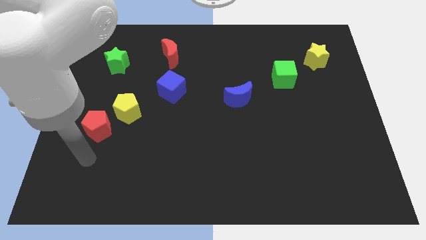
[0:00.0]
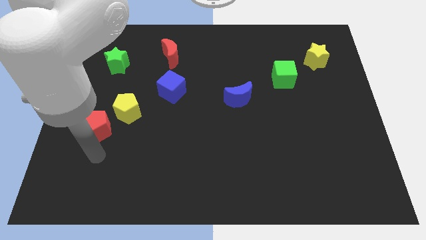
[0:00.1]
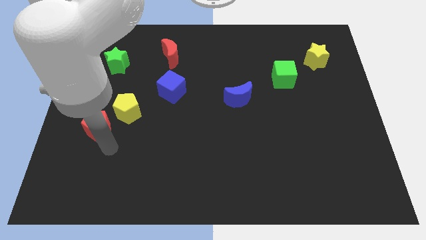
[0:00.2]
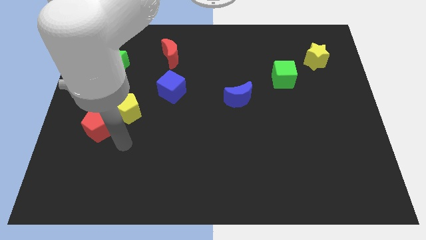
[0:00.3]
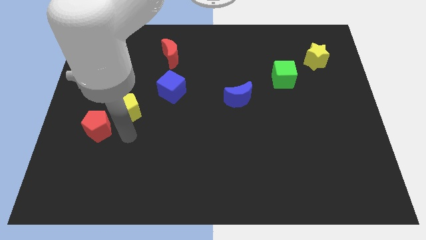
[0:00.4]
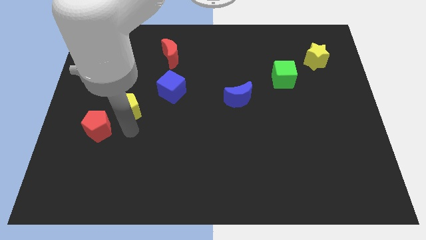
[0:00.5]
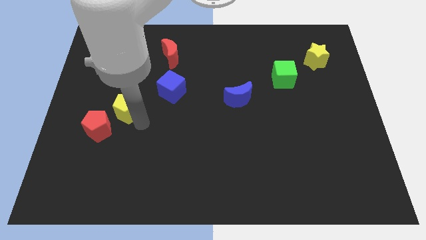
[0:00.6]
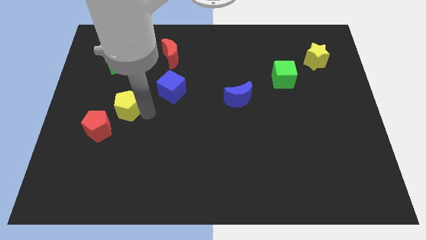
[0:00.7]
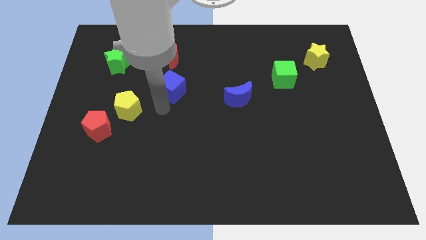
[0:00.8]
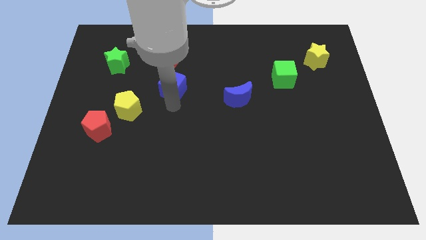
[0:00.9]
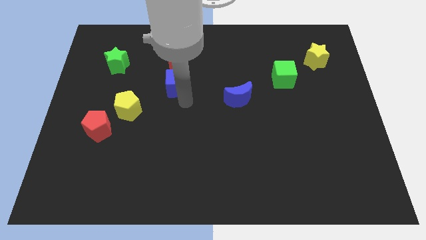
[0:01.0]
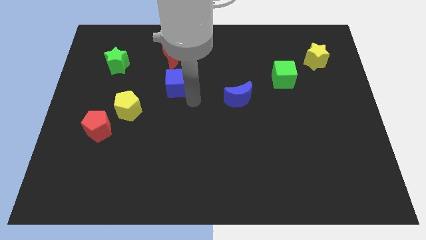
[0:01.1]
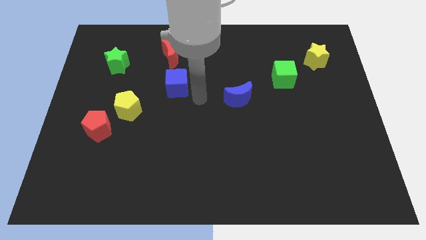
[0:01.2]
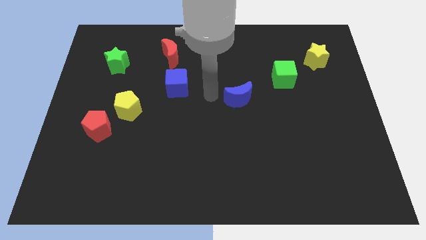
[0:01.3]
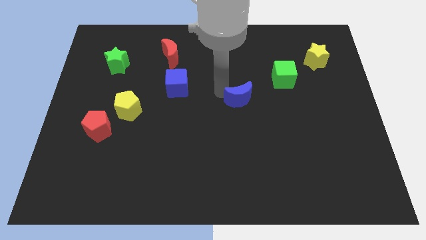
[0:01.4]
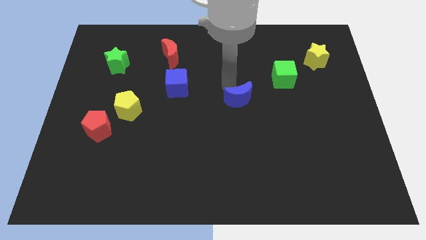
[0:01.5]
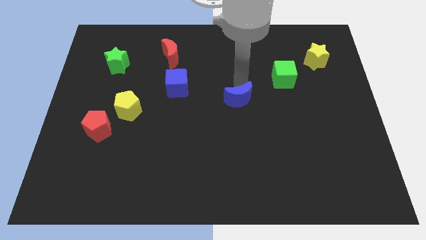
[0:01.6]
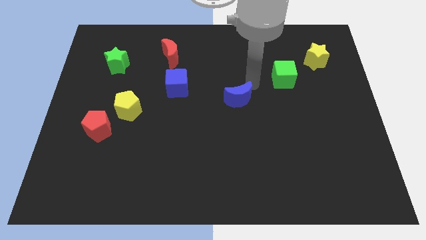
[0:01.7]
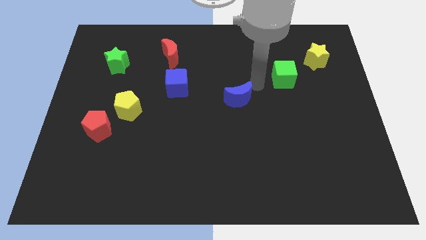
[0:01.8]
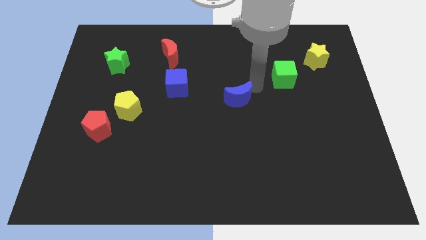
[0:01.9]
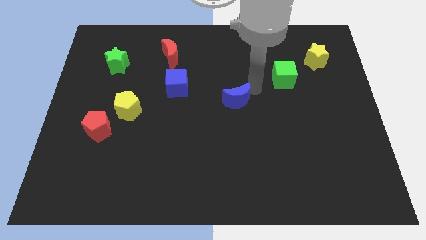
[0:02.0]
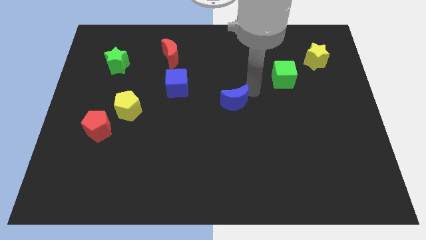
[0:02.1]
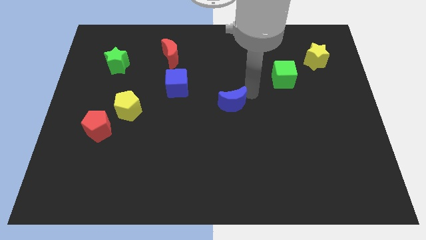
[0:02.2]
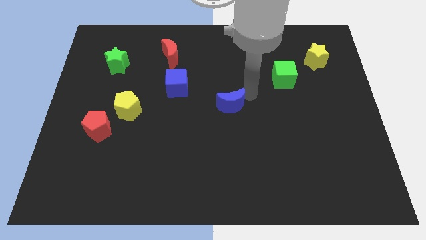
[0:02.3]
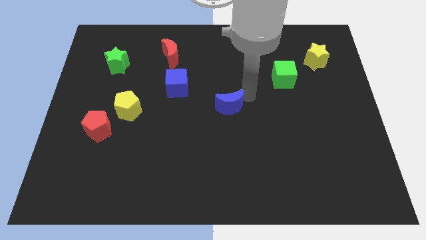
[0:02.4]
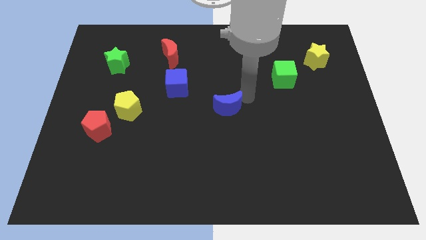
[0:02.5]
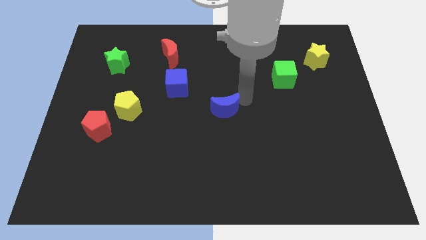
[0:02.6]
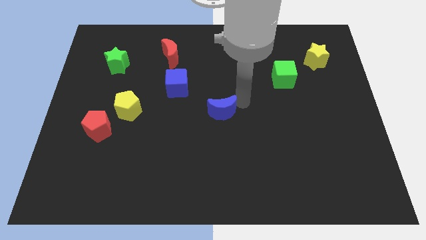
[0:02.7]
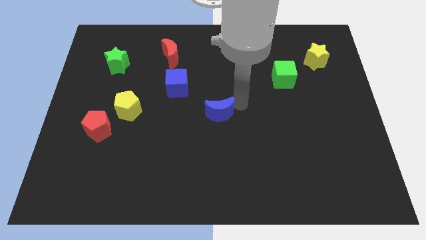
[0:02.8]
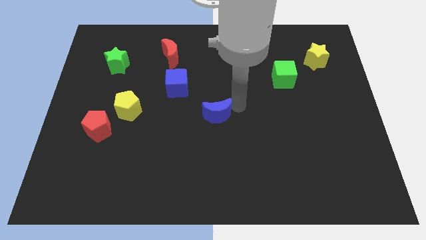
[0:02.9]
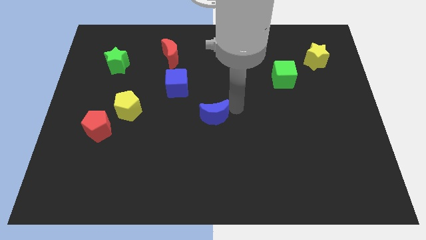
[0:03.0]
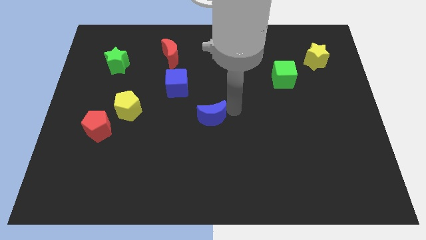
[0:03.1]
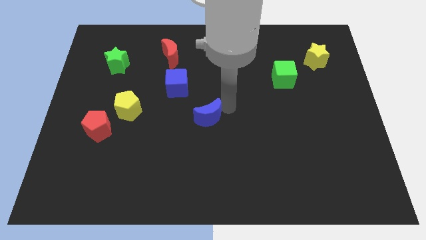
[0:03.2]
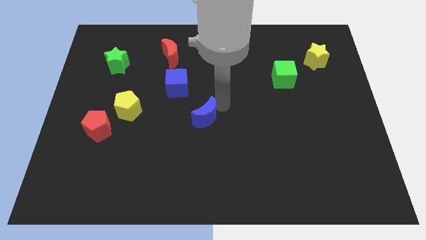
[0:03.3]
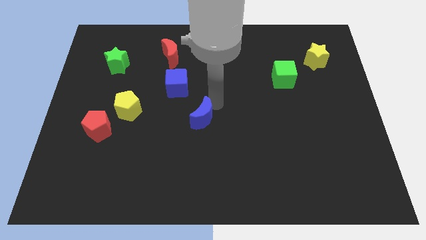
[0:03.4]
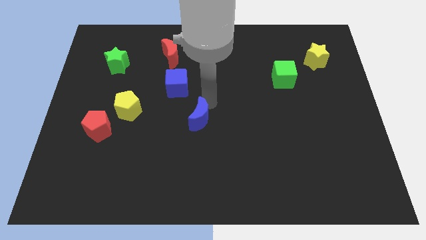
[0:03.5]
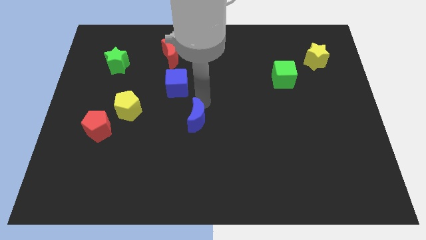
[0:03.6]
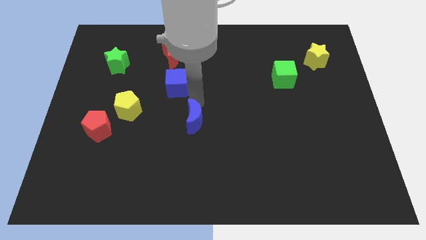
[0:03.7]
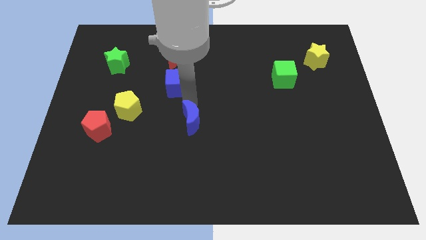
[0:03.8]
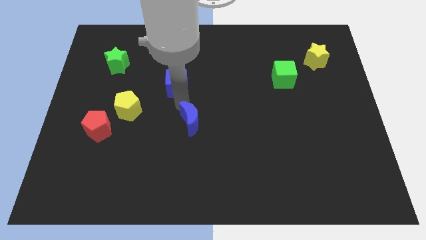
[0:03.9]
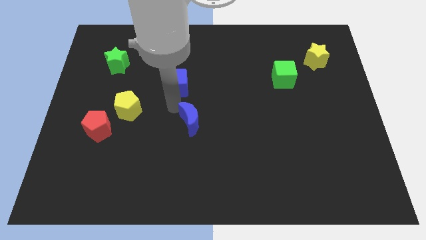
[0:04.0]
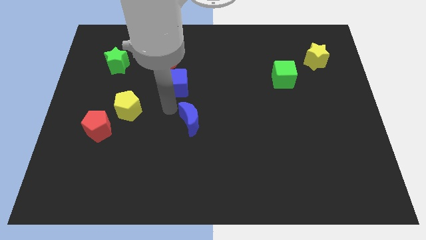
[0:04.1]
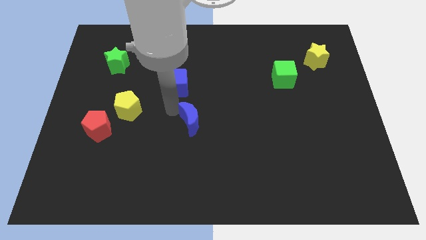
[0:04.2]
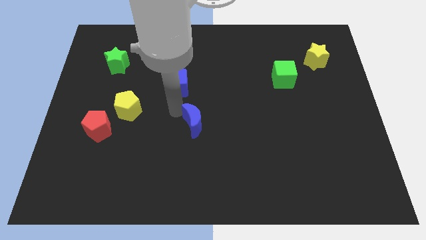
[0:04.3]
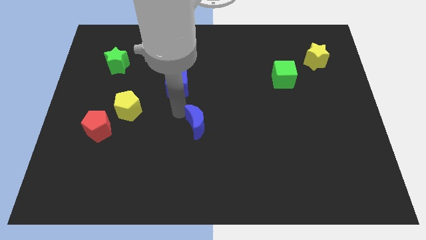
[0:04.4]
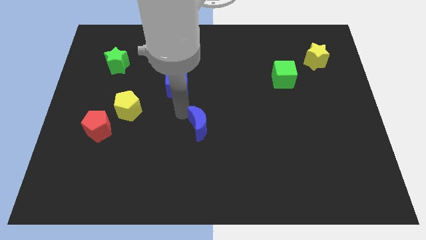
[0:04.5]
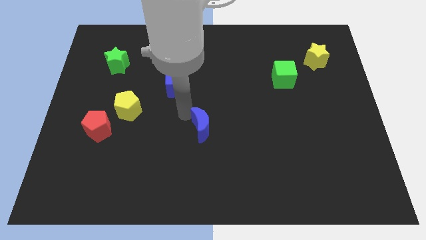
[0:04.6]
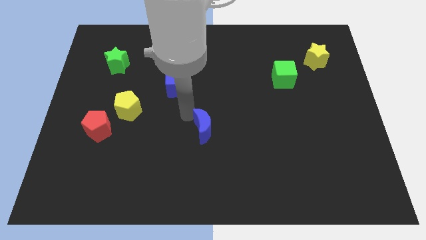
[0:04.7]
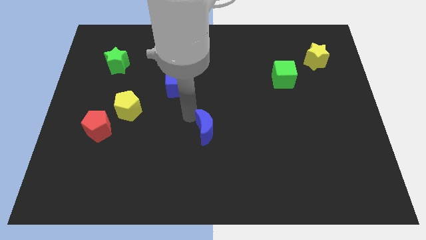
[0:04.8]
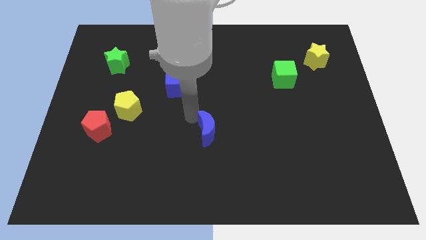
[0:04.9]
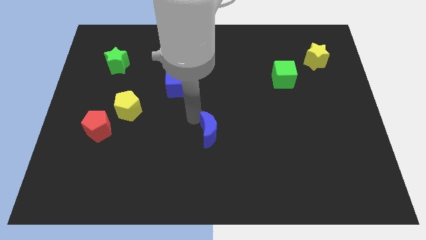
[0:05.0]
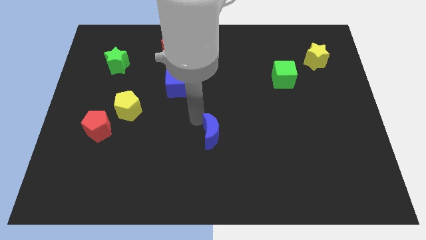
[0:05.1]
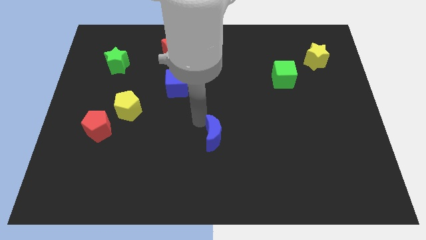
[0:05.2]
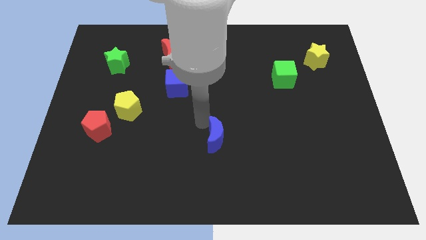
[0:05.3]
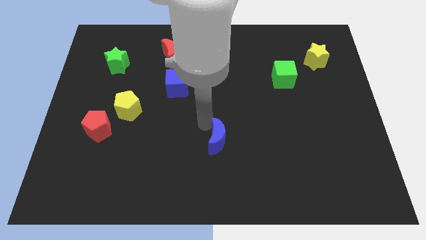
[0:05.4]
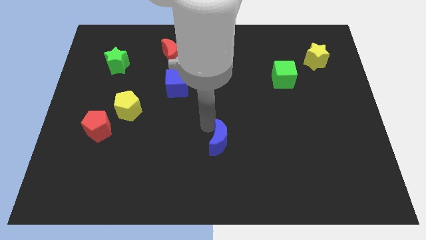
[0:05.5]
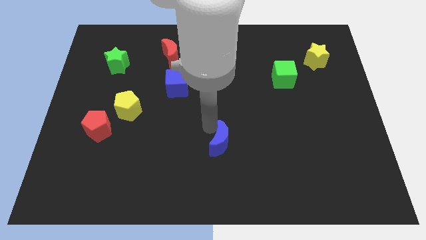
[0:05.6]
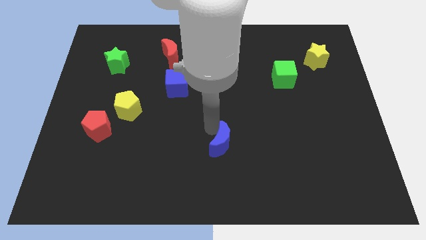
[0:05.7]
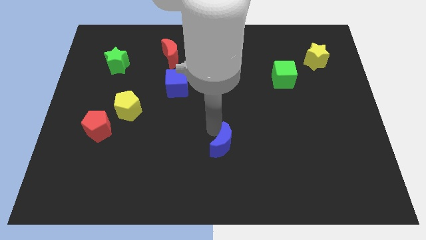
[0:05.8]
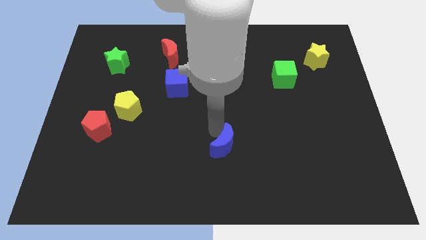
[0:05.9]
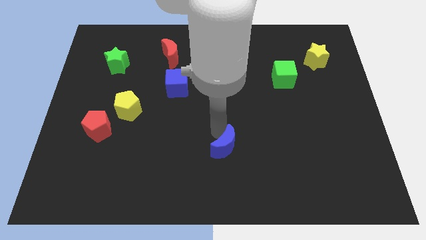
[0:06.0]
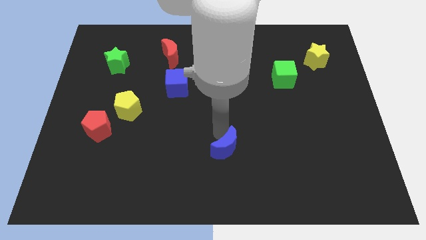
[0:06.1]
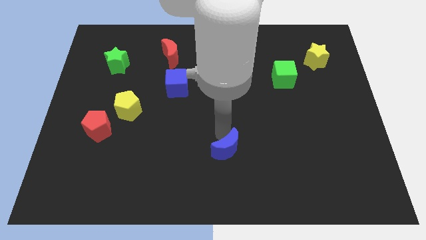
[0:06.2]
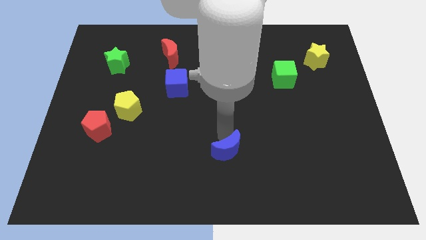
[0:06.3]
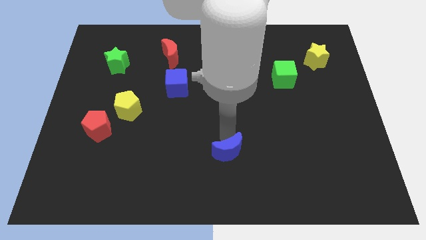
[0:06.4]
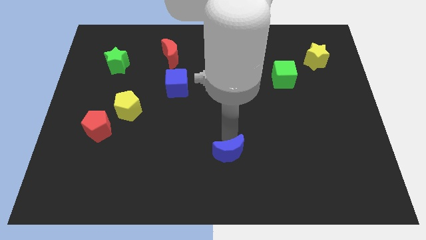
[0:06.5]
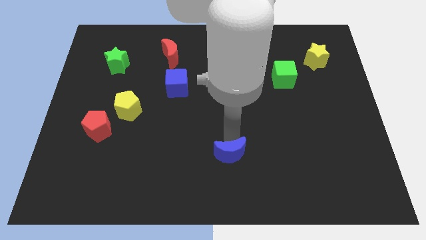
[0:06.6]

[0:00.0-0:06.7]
push the blue moon to the bottom side
